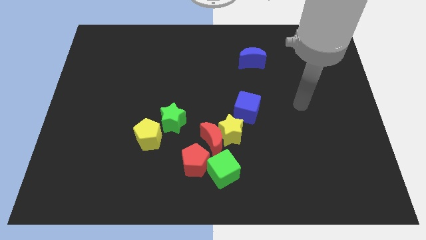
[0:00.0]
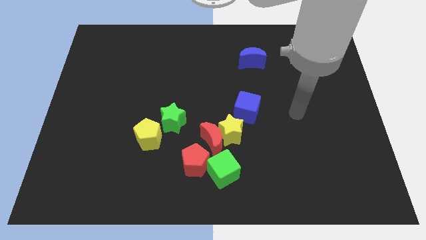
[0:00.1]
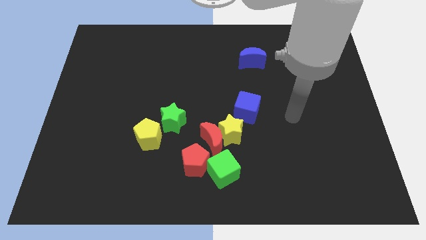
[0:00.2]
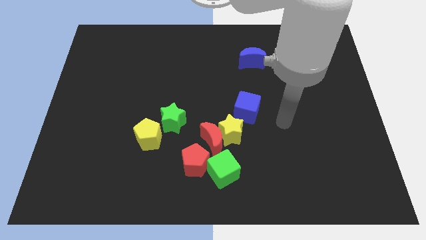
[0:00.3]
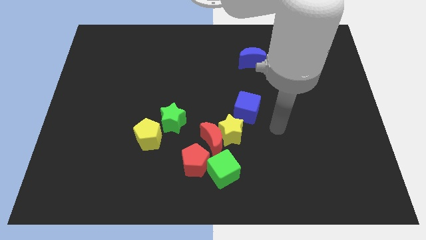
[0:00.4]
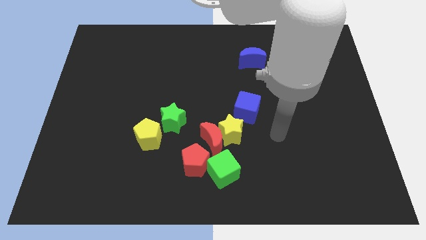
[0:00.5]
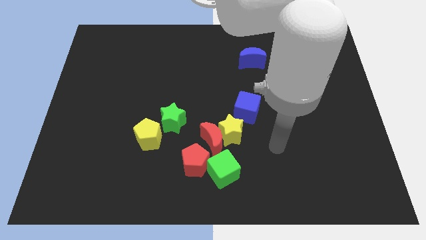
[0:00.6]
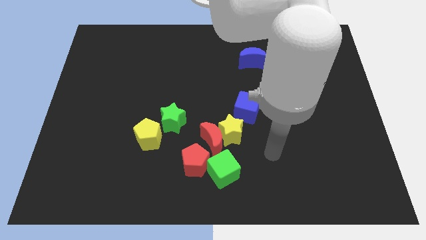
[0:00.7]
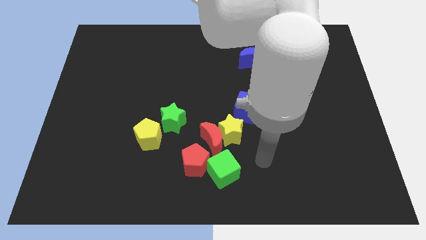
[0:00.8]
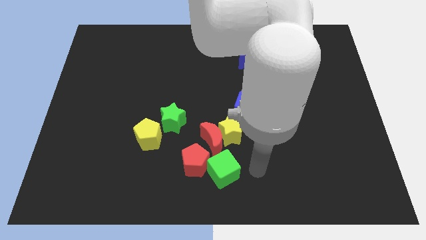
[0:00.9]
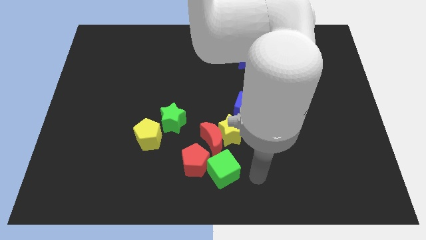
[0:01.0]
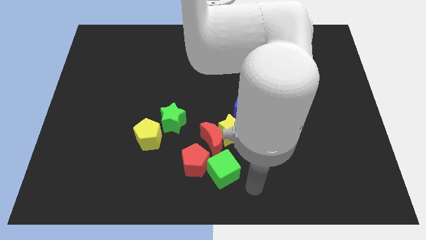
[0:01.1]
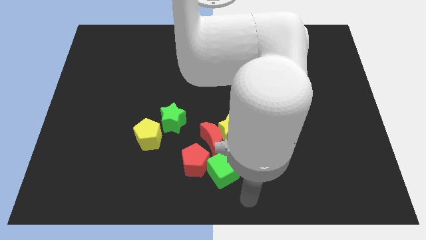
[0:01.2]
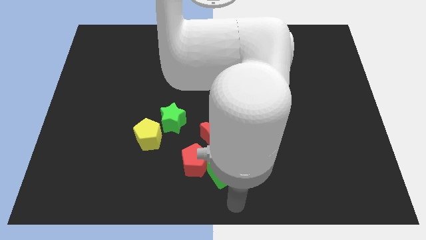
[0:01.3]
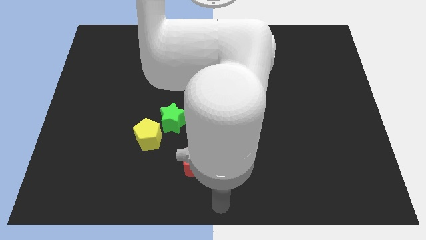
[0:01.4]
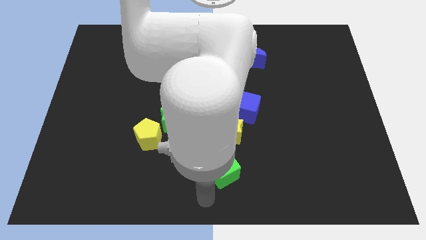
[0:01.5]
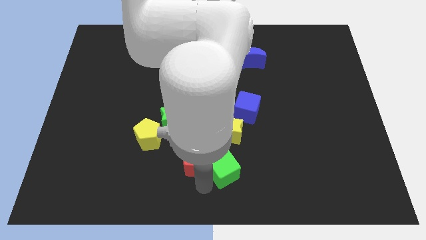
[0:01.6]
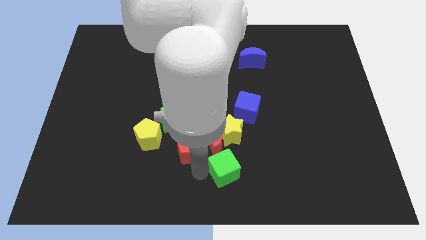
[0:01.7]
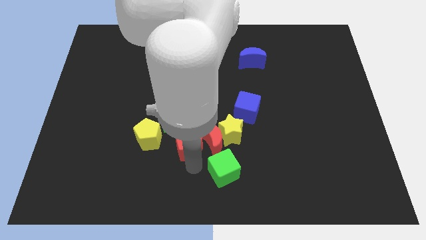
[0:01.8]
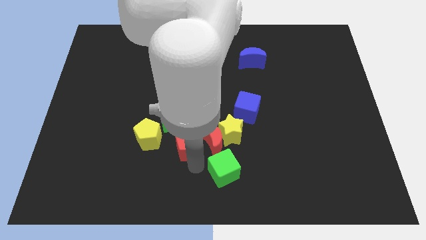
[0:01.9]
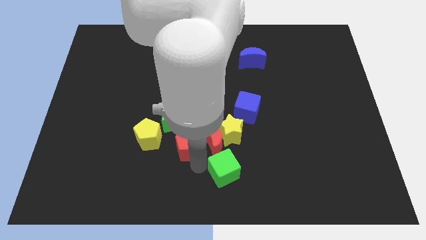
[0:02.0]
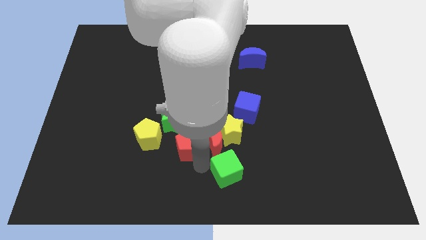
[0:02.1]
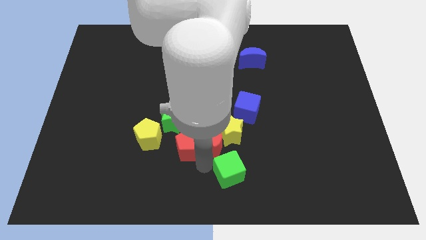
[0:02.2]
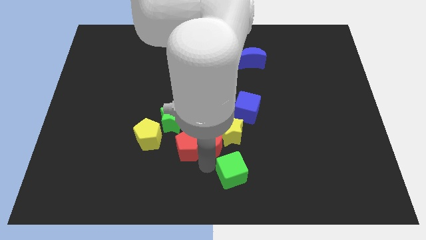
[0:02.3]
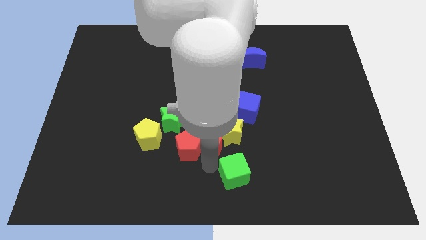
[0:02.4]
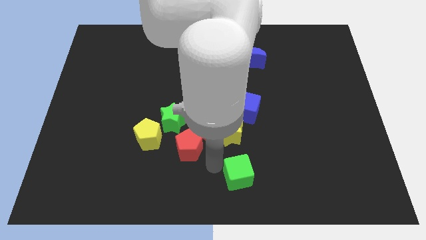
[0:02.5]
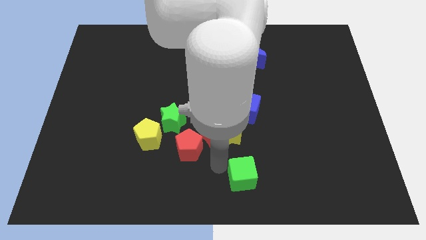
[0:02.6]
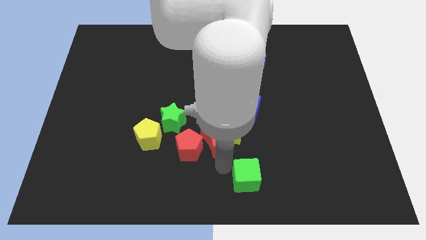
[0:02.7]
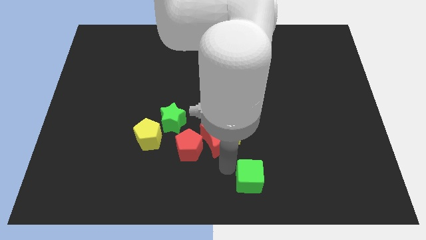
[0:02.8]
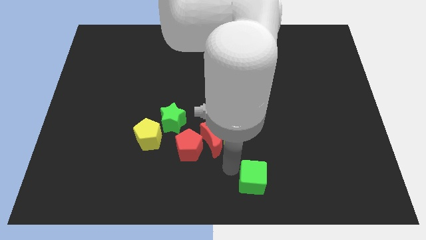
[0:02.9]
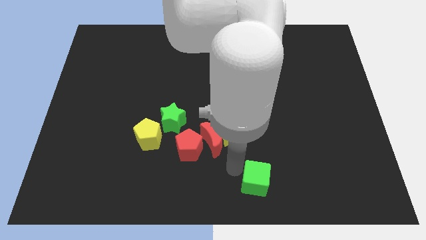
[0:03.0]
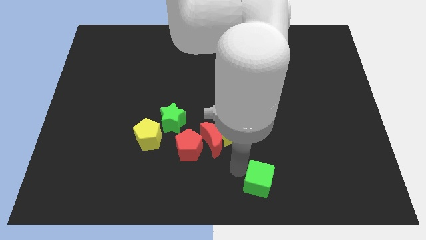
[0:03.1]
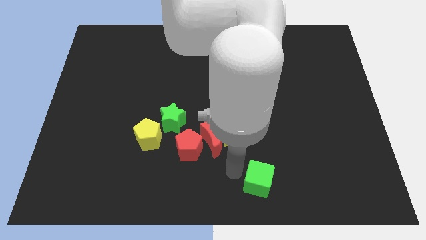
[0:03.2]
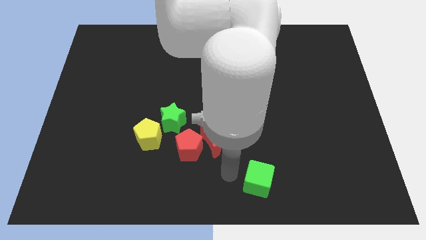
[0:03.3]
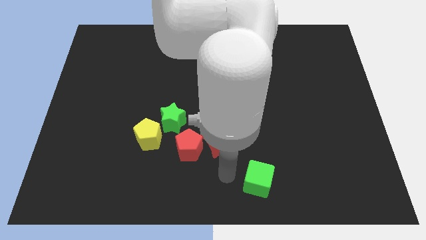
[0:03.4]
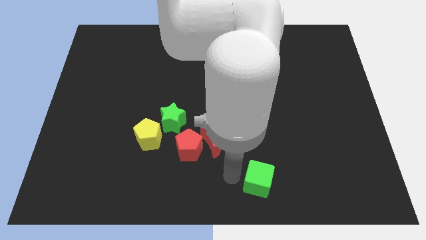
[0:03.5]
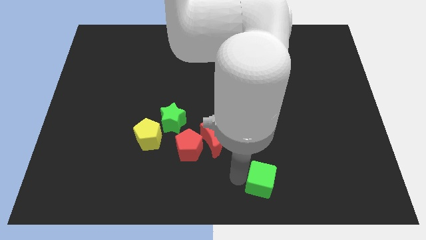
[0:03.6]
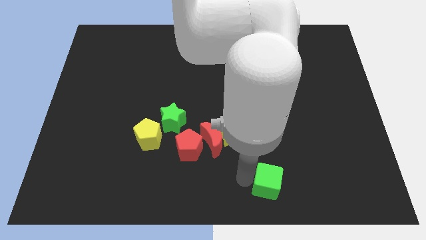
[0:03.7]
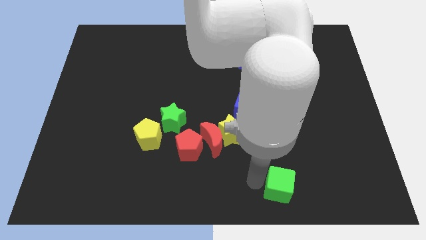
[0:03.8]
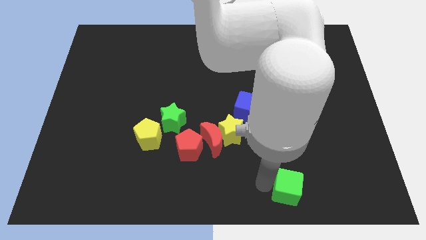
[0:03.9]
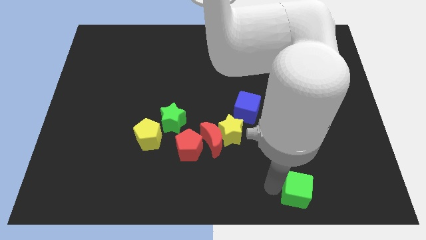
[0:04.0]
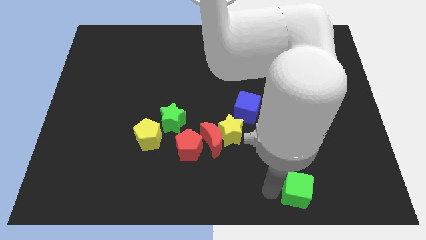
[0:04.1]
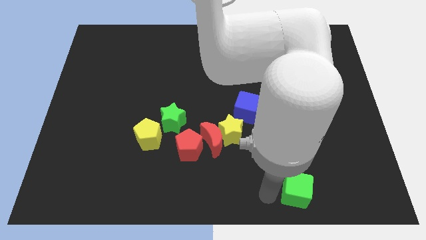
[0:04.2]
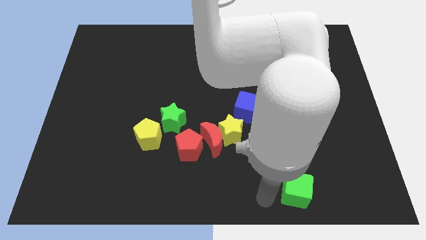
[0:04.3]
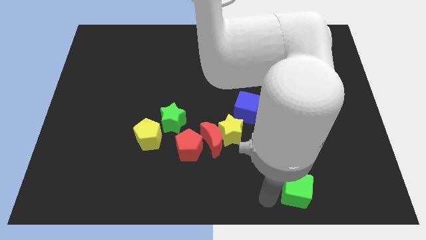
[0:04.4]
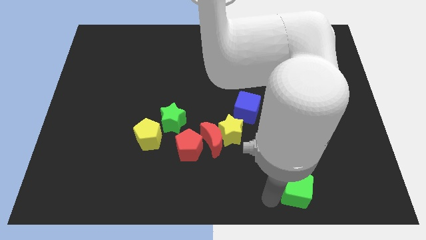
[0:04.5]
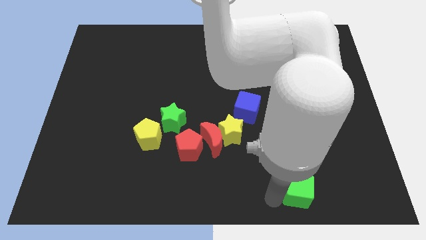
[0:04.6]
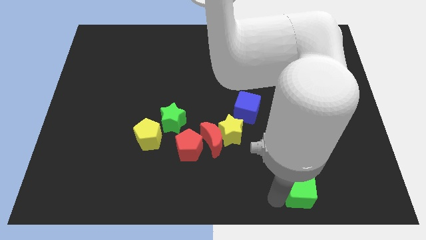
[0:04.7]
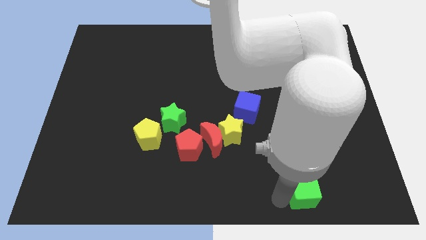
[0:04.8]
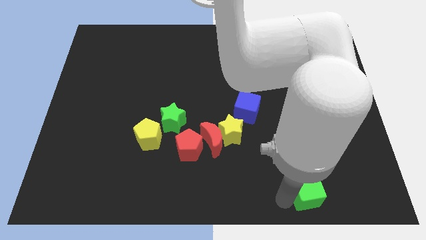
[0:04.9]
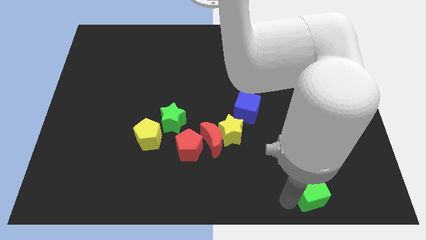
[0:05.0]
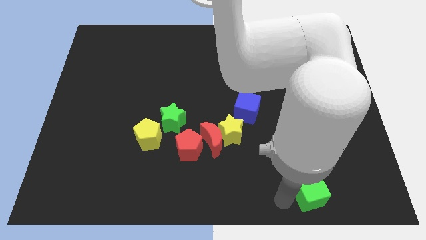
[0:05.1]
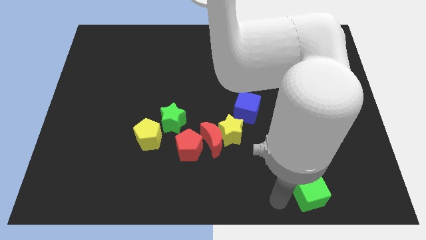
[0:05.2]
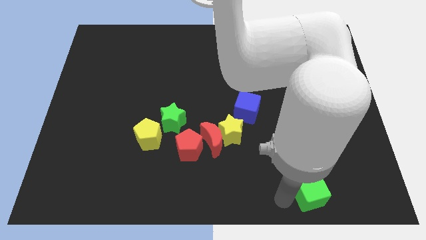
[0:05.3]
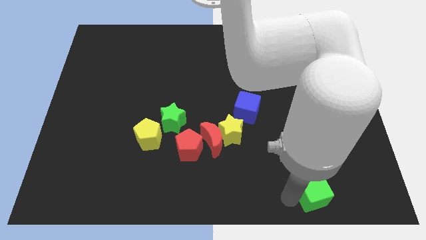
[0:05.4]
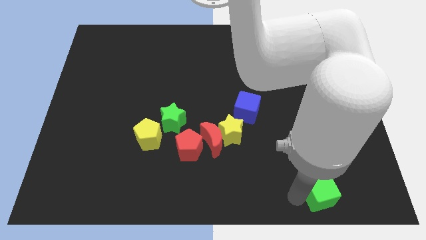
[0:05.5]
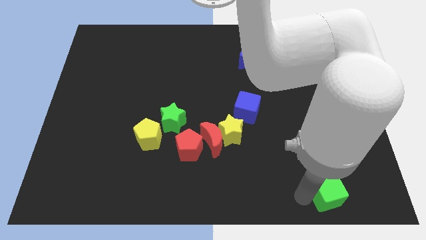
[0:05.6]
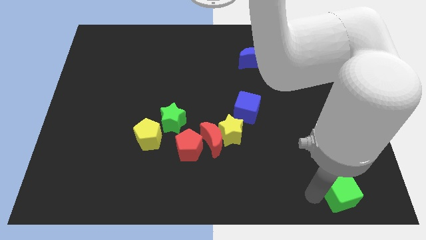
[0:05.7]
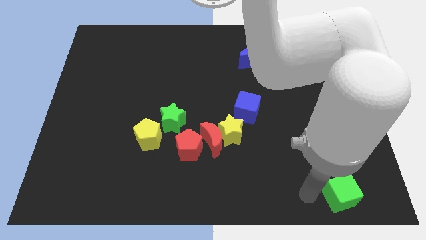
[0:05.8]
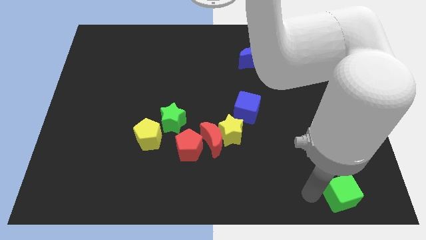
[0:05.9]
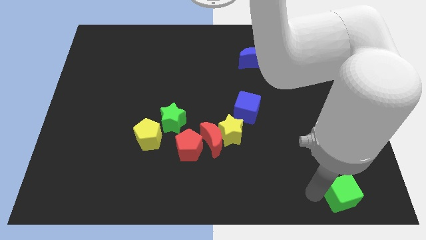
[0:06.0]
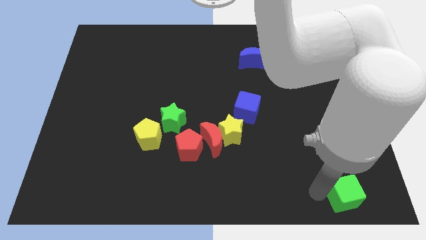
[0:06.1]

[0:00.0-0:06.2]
slide the green cube to the bottom right of the board
